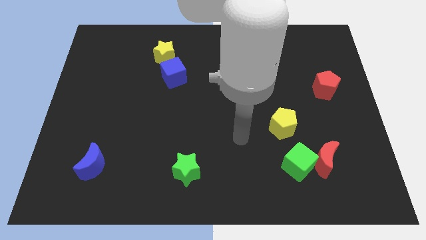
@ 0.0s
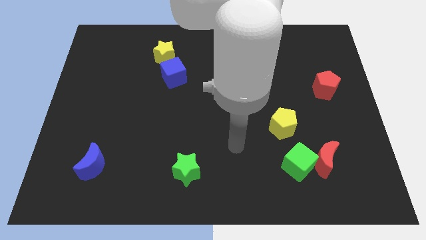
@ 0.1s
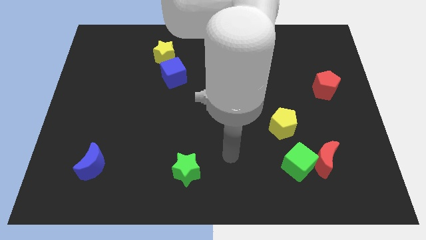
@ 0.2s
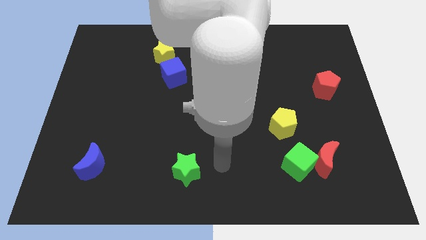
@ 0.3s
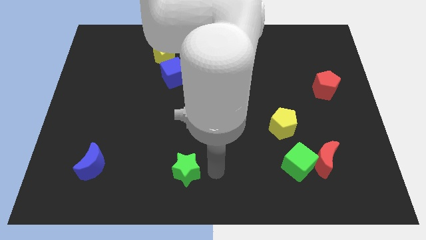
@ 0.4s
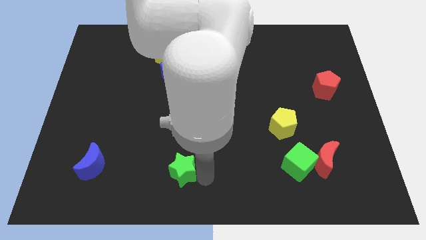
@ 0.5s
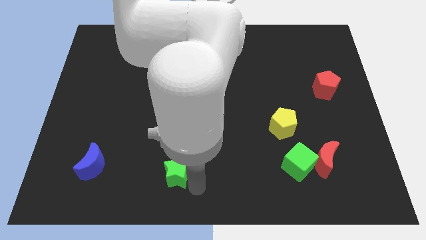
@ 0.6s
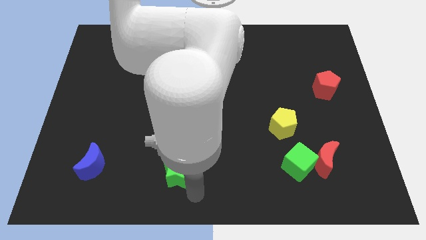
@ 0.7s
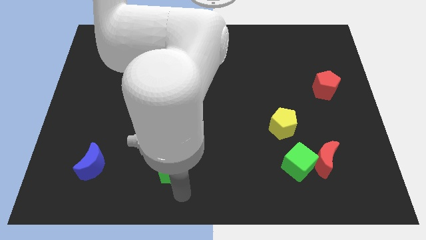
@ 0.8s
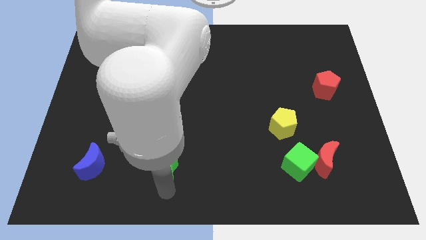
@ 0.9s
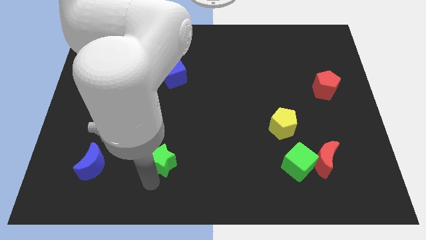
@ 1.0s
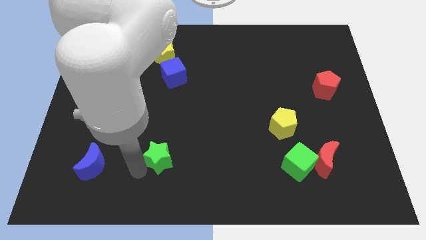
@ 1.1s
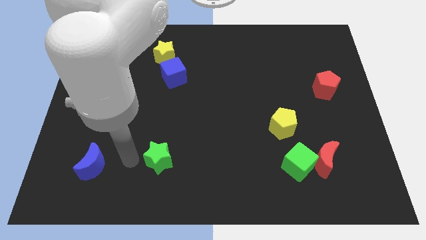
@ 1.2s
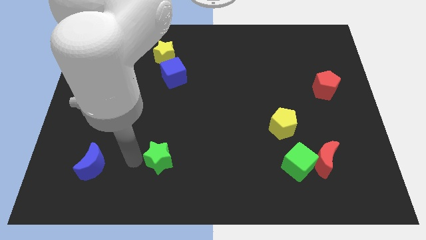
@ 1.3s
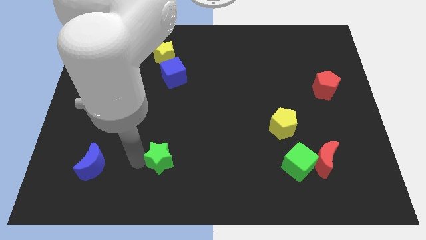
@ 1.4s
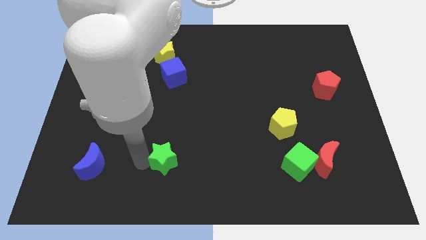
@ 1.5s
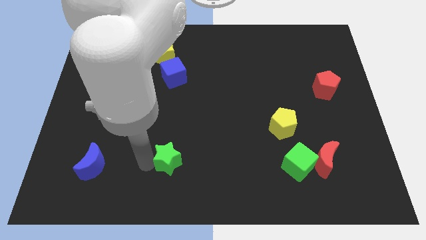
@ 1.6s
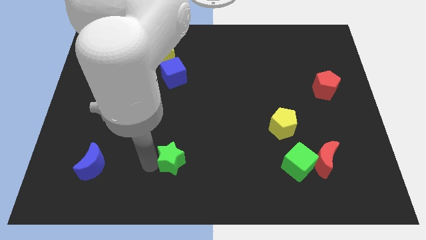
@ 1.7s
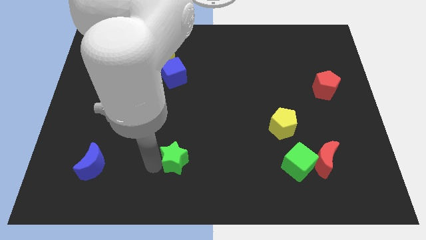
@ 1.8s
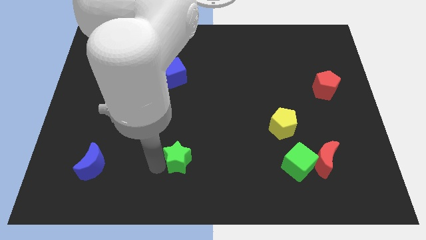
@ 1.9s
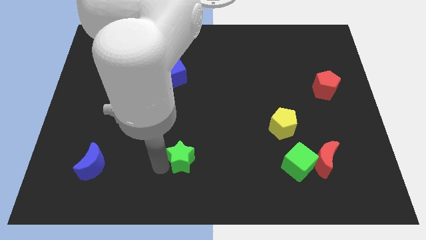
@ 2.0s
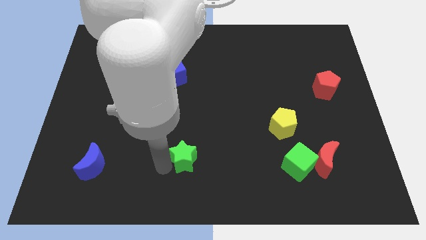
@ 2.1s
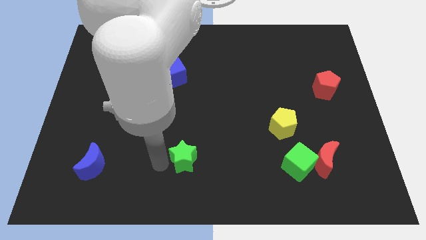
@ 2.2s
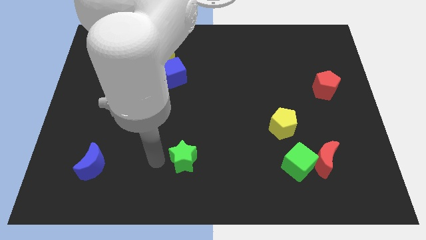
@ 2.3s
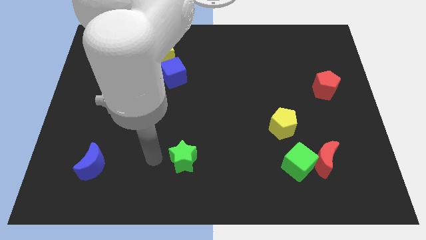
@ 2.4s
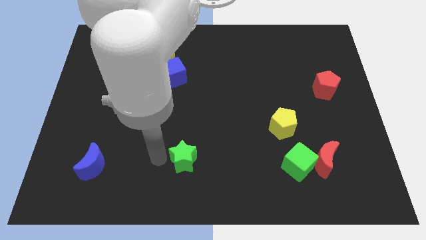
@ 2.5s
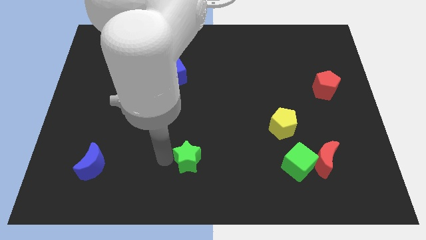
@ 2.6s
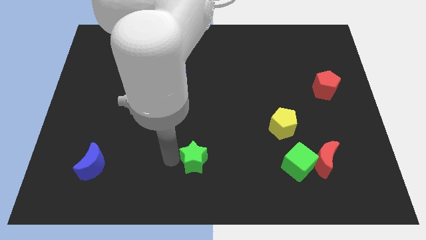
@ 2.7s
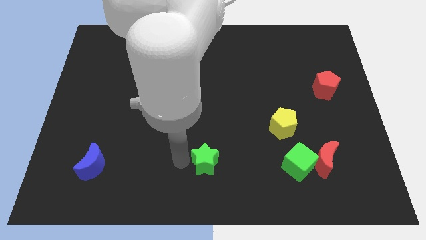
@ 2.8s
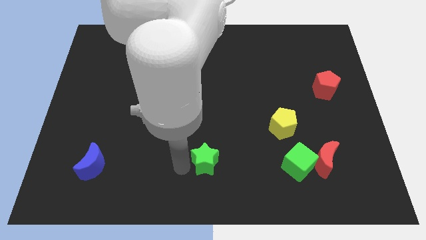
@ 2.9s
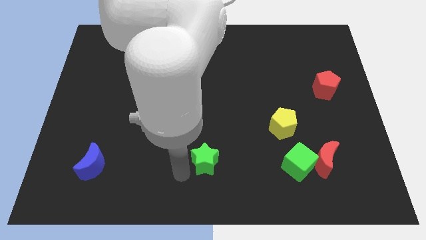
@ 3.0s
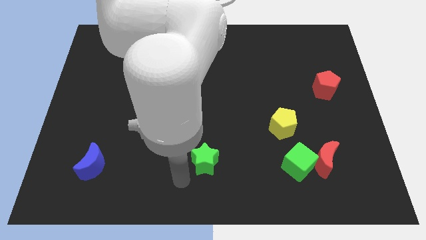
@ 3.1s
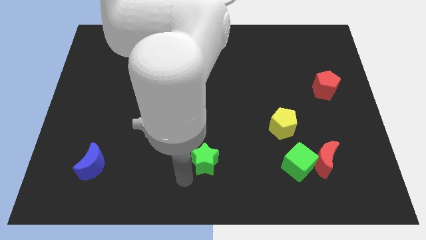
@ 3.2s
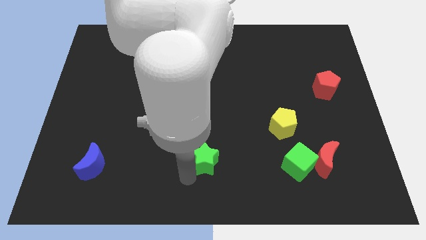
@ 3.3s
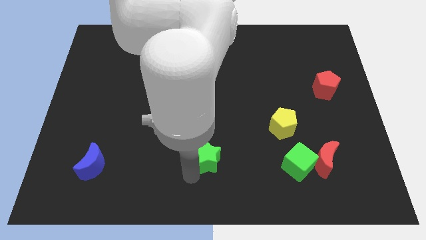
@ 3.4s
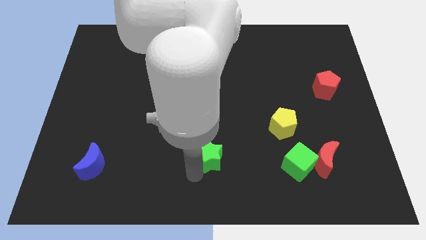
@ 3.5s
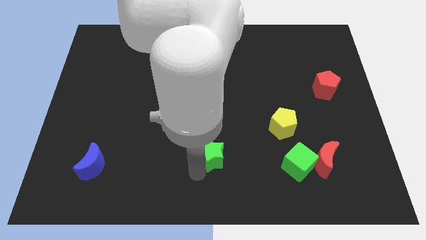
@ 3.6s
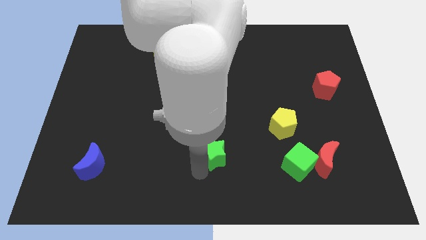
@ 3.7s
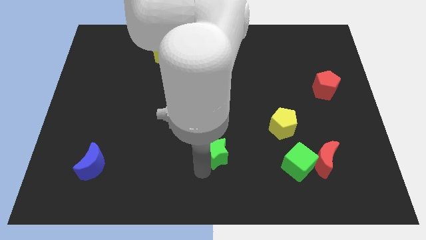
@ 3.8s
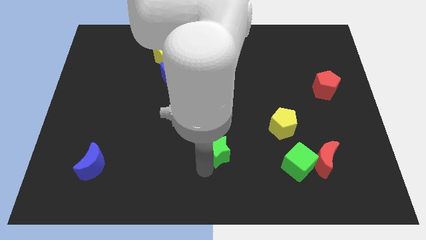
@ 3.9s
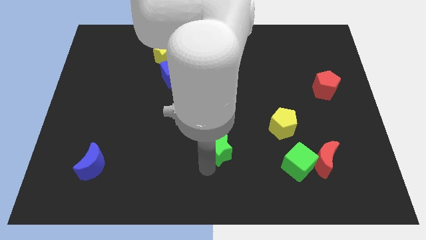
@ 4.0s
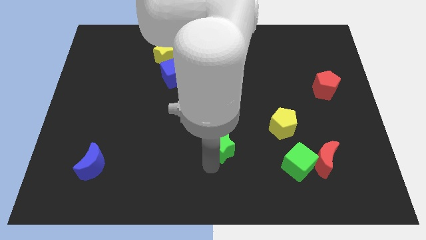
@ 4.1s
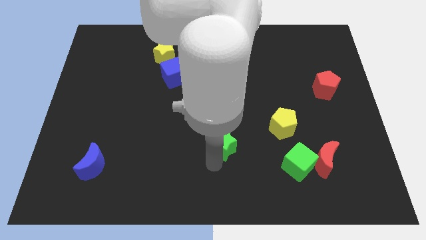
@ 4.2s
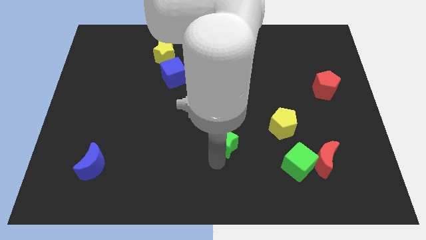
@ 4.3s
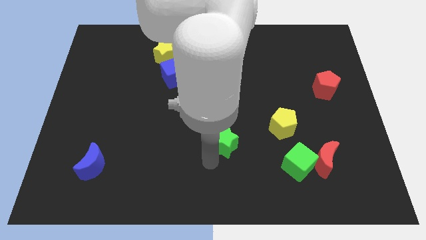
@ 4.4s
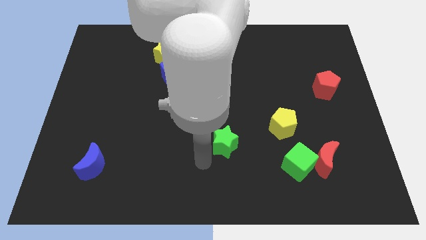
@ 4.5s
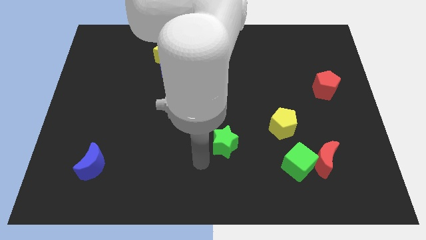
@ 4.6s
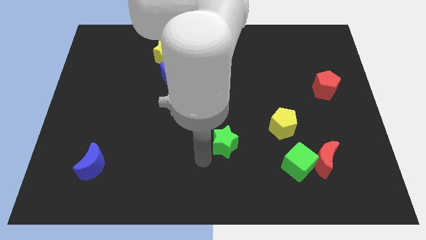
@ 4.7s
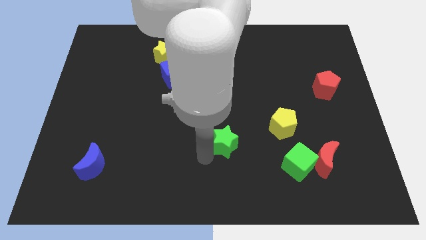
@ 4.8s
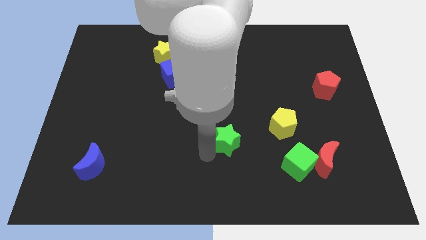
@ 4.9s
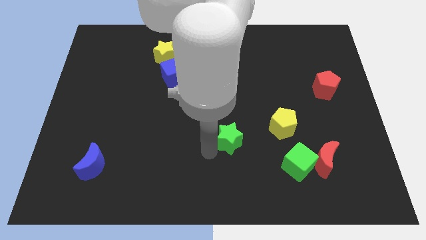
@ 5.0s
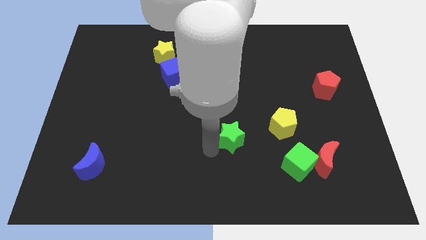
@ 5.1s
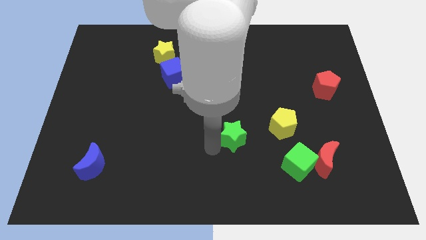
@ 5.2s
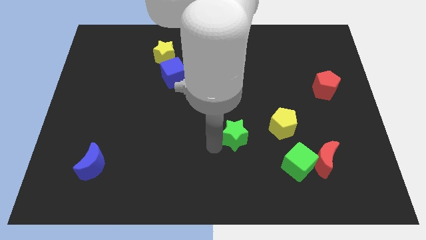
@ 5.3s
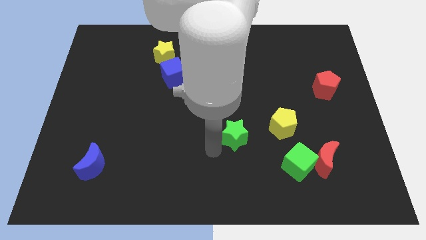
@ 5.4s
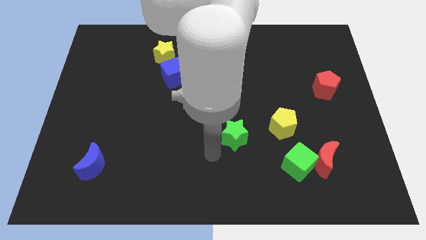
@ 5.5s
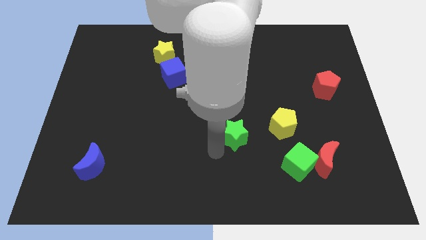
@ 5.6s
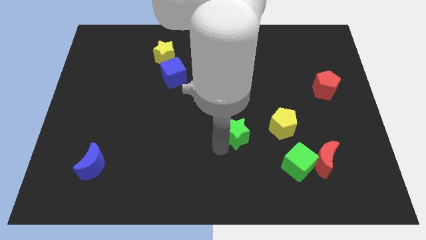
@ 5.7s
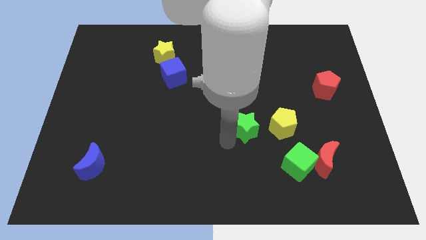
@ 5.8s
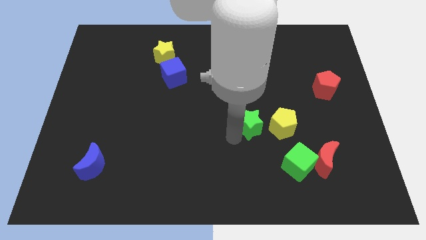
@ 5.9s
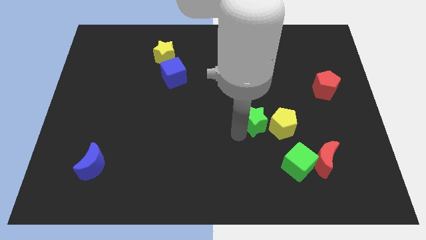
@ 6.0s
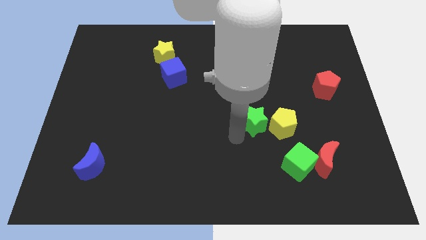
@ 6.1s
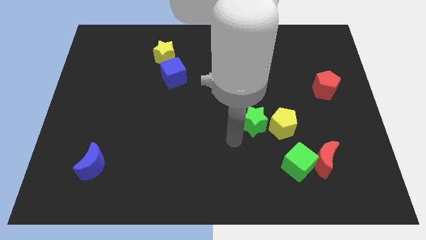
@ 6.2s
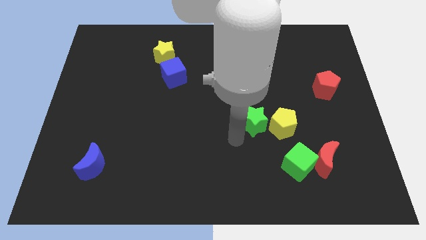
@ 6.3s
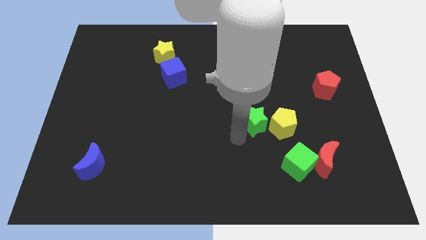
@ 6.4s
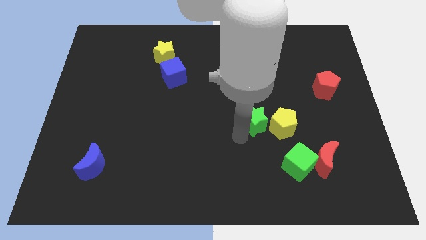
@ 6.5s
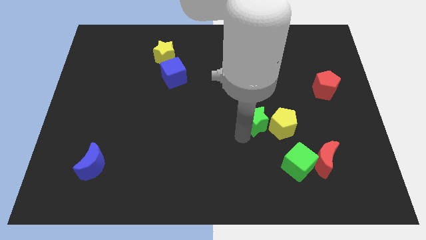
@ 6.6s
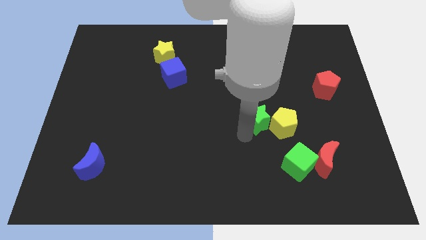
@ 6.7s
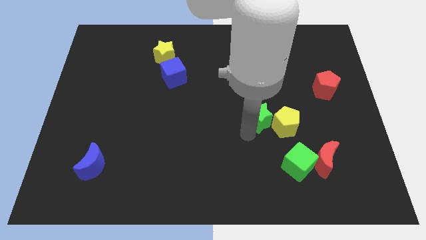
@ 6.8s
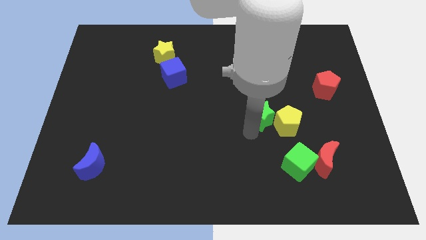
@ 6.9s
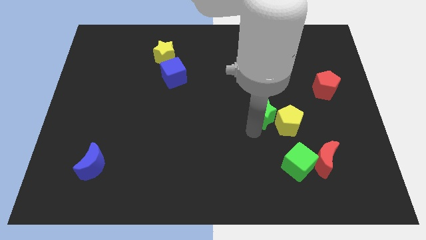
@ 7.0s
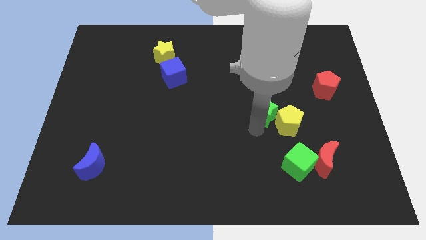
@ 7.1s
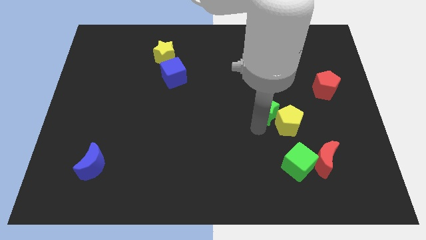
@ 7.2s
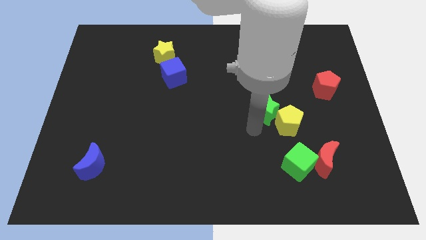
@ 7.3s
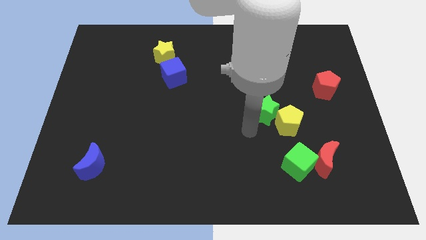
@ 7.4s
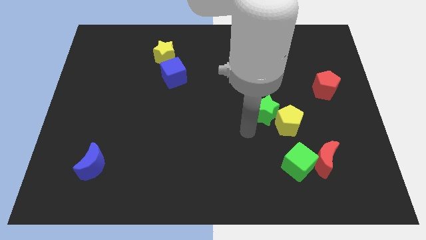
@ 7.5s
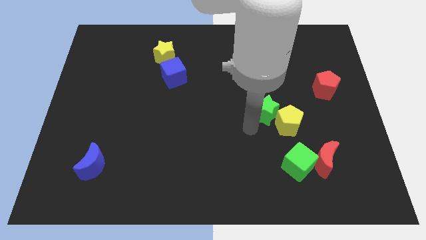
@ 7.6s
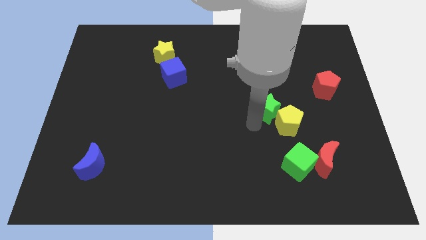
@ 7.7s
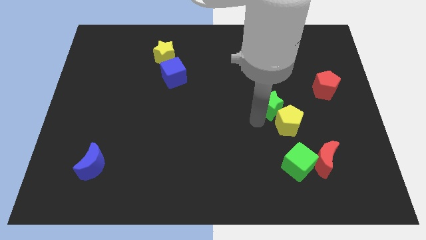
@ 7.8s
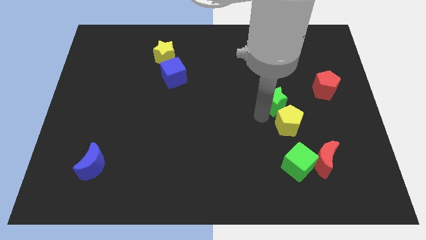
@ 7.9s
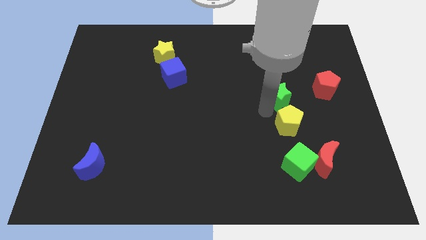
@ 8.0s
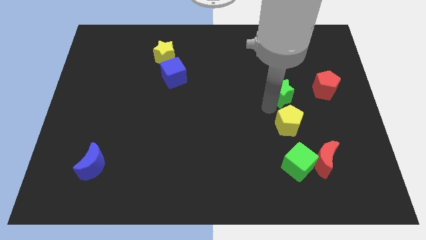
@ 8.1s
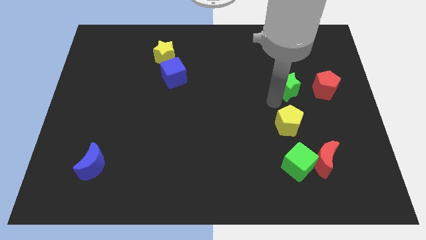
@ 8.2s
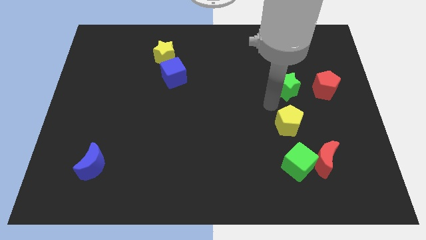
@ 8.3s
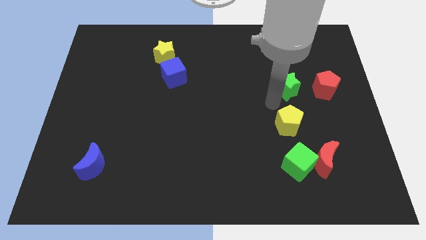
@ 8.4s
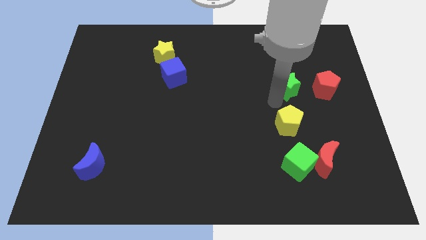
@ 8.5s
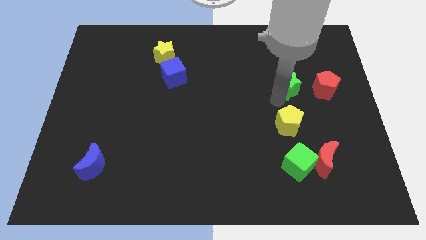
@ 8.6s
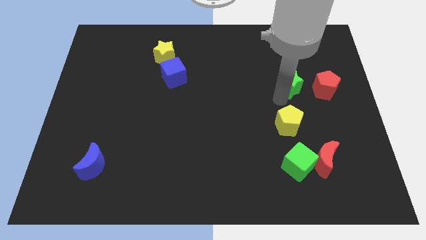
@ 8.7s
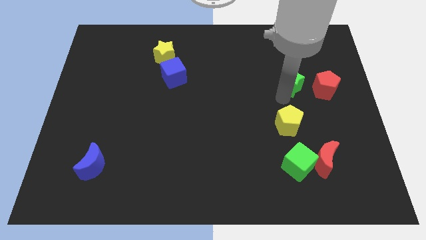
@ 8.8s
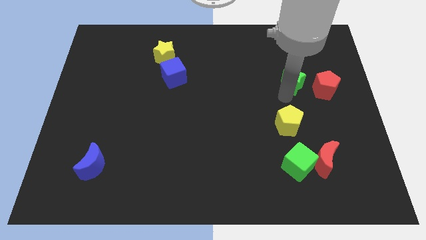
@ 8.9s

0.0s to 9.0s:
push the green star diagonally up and to the left of the red pentagon
